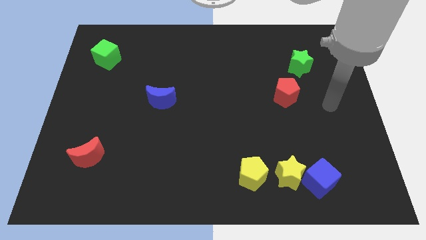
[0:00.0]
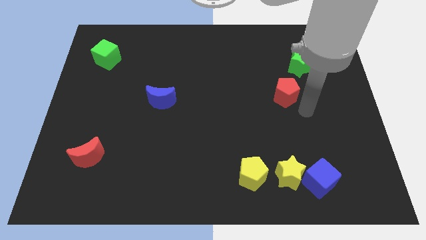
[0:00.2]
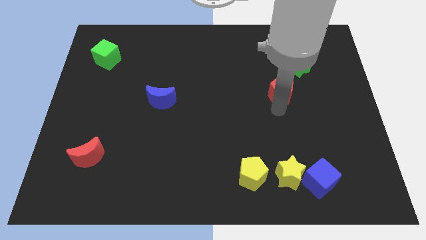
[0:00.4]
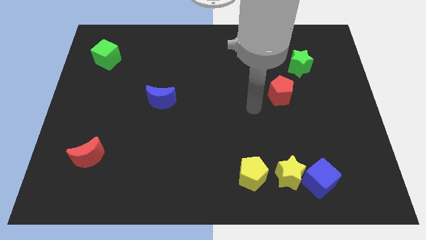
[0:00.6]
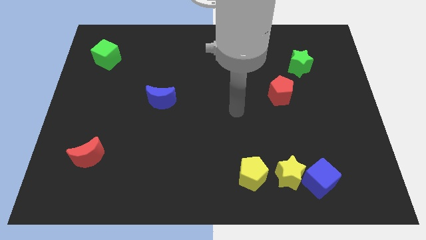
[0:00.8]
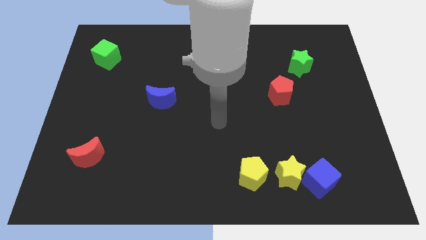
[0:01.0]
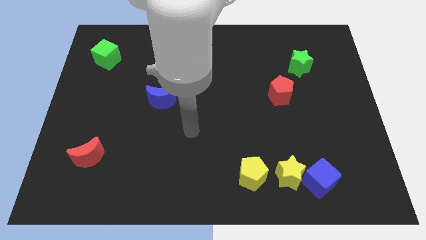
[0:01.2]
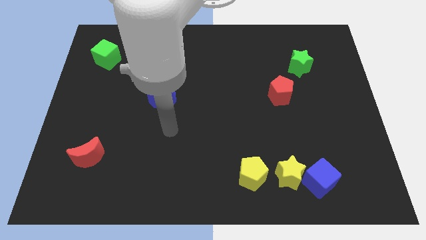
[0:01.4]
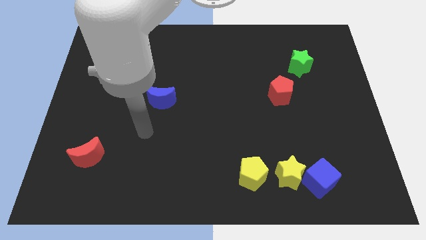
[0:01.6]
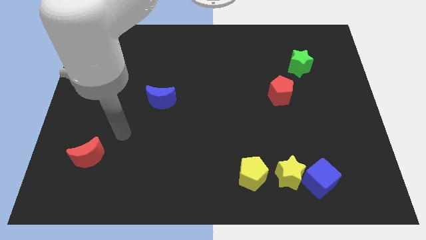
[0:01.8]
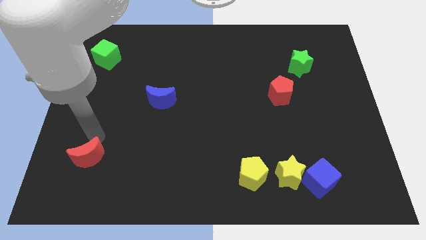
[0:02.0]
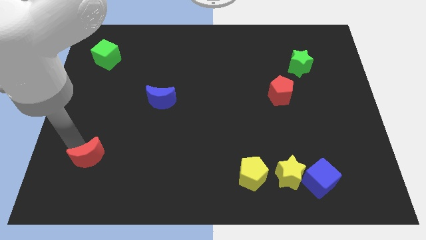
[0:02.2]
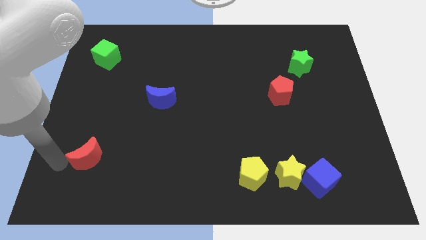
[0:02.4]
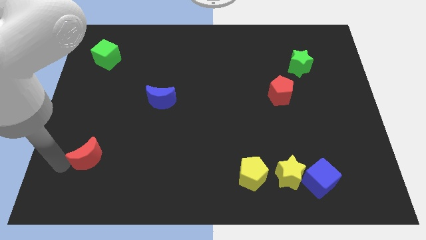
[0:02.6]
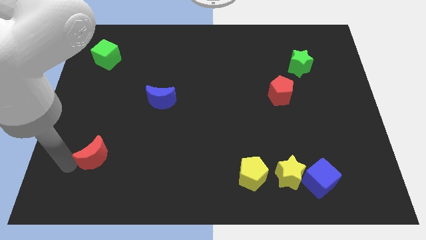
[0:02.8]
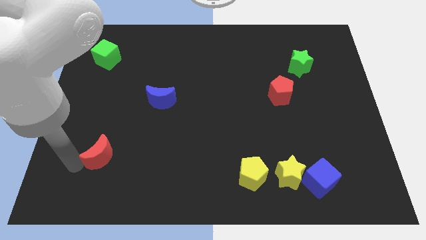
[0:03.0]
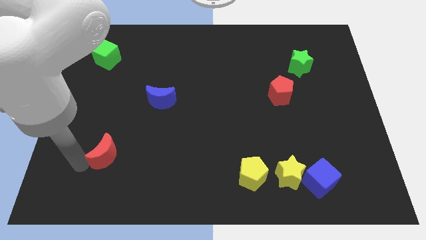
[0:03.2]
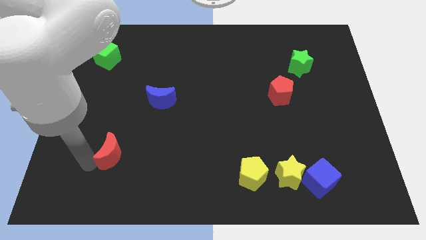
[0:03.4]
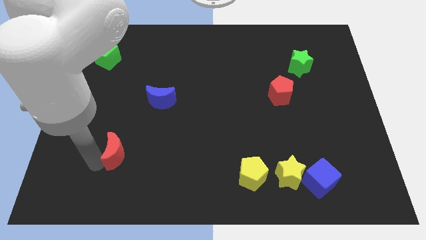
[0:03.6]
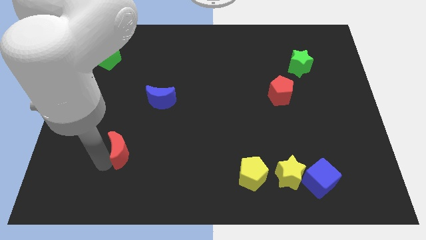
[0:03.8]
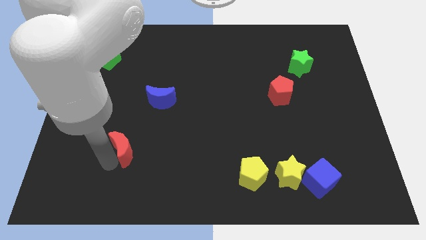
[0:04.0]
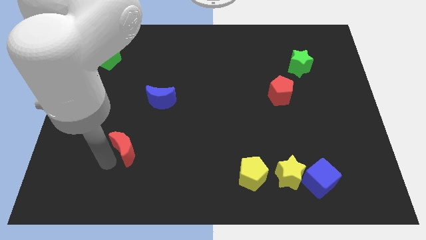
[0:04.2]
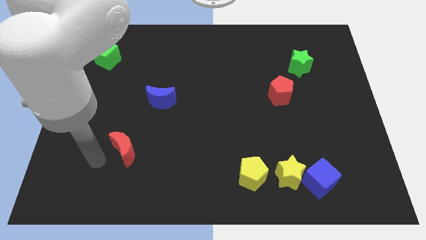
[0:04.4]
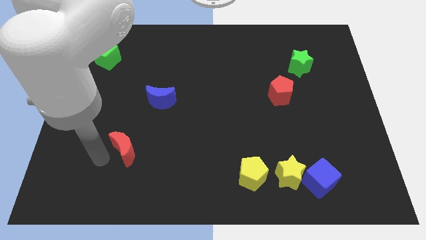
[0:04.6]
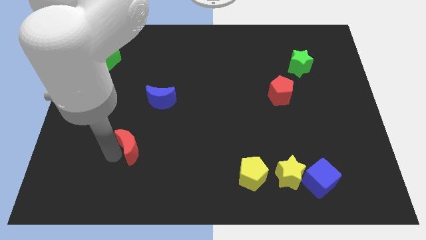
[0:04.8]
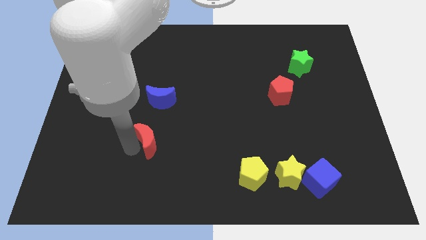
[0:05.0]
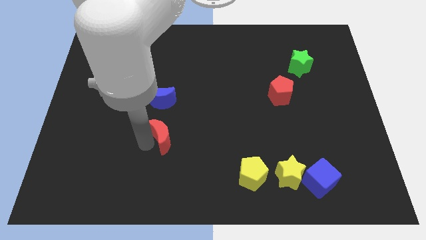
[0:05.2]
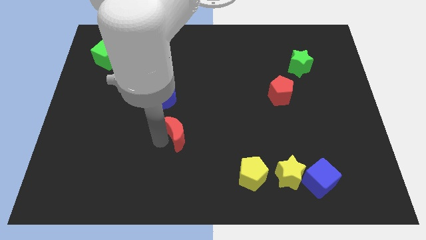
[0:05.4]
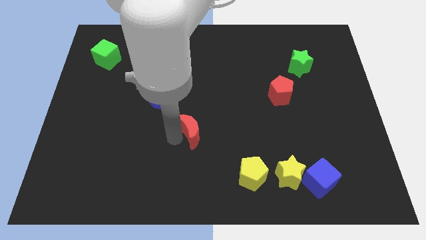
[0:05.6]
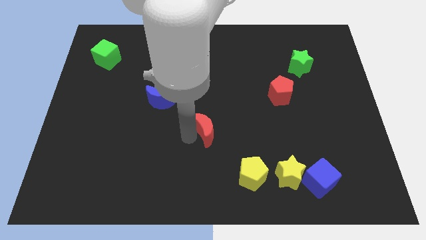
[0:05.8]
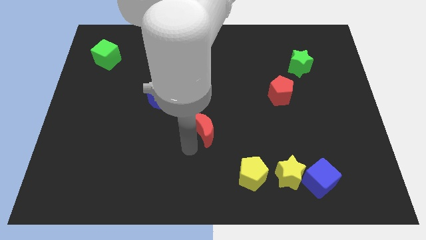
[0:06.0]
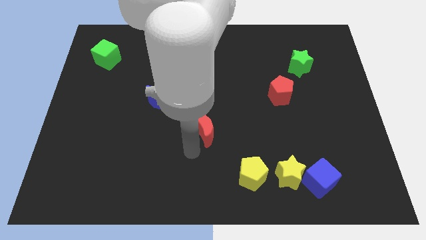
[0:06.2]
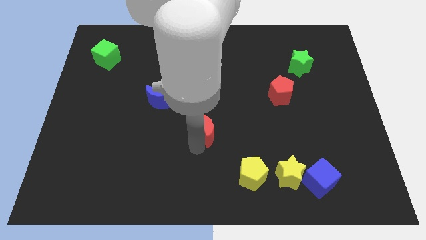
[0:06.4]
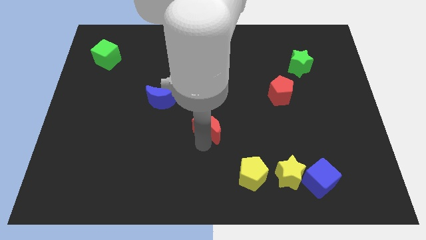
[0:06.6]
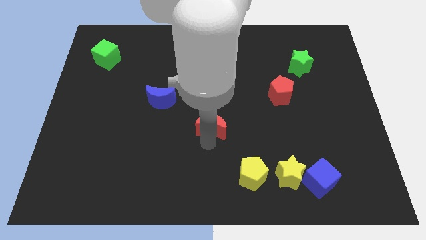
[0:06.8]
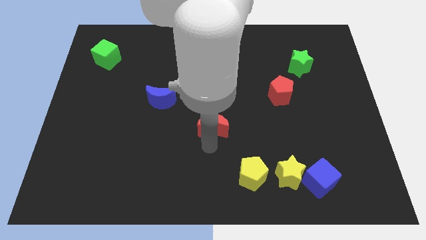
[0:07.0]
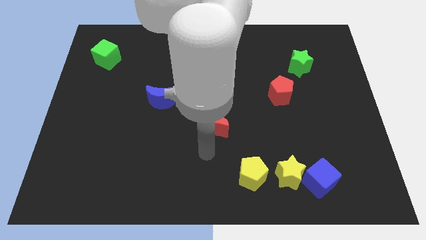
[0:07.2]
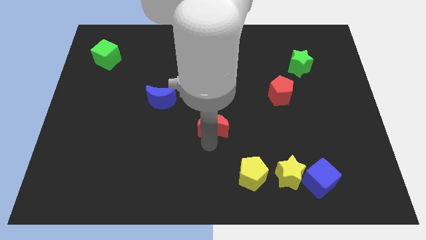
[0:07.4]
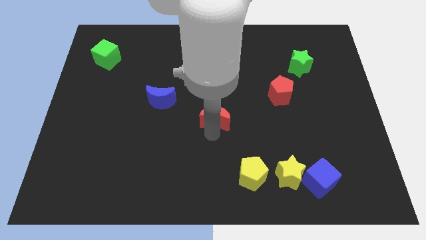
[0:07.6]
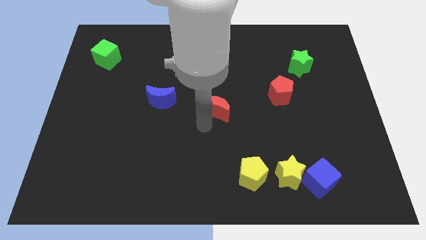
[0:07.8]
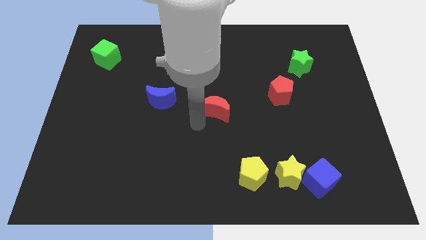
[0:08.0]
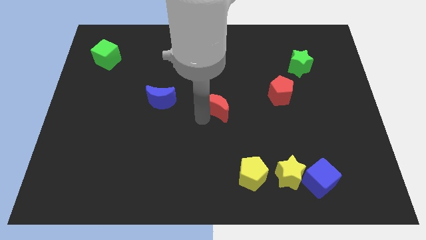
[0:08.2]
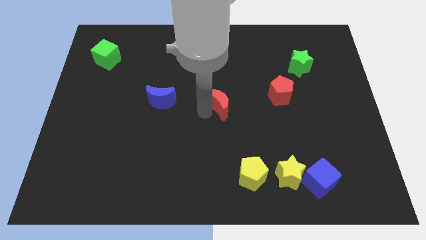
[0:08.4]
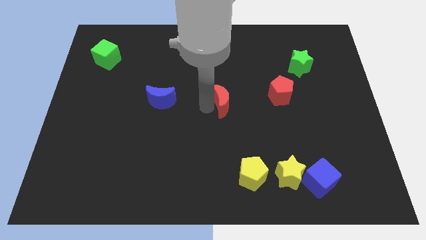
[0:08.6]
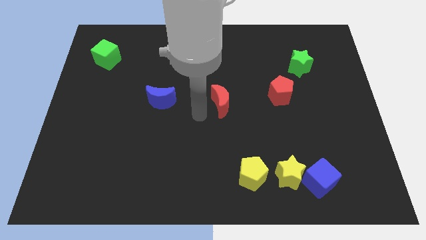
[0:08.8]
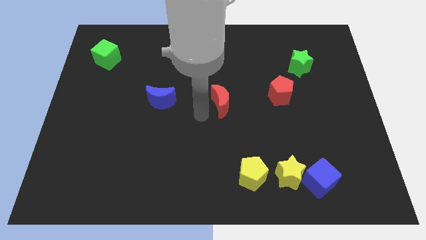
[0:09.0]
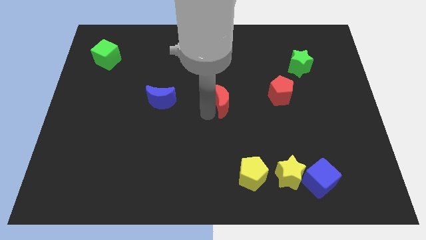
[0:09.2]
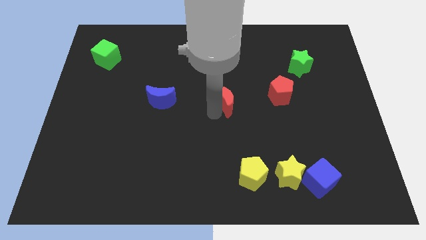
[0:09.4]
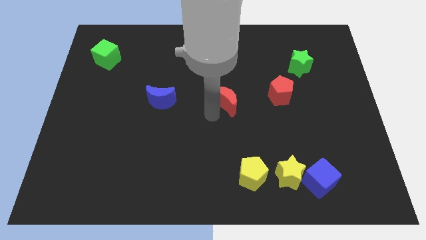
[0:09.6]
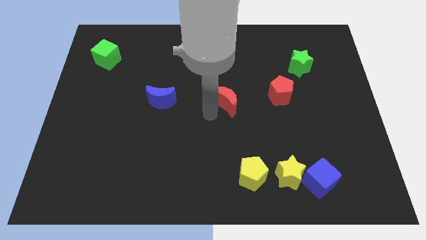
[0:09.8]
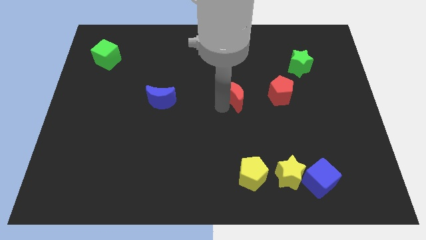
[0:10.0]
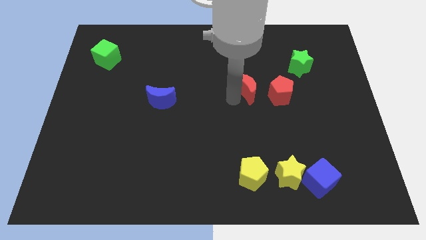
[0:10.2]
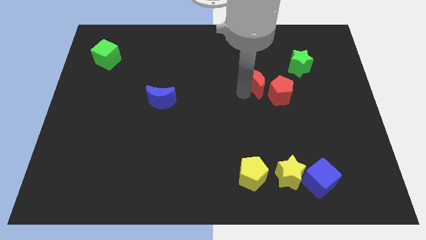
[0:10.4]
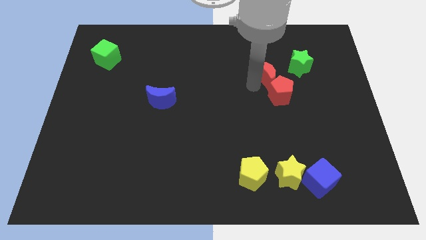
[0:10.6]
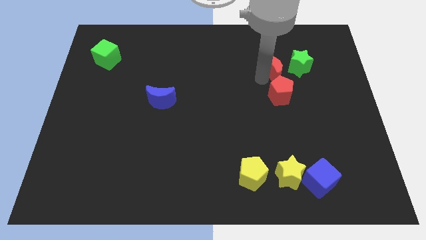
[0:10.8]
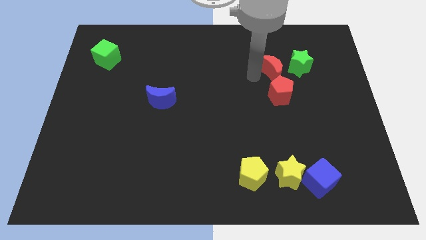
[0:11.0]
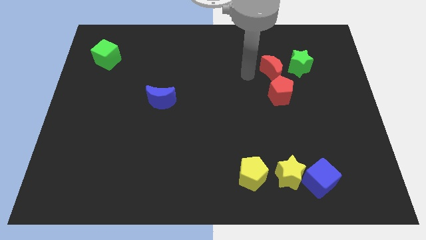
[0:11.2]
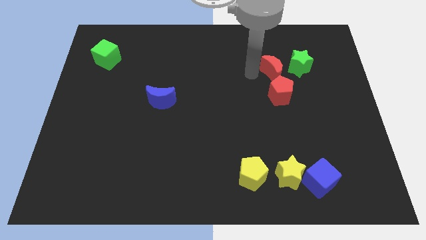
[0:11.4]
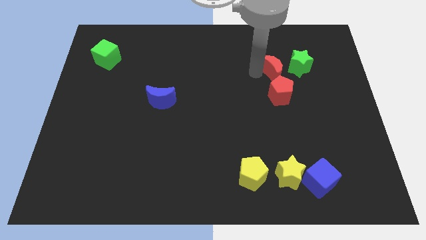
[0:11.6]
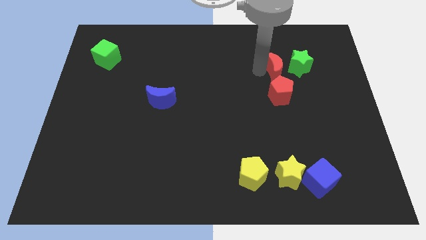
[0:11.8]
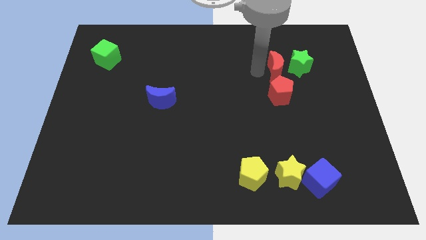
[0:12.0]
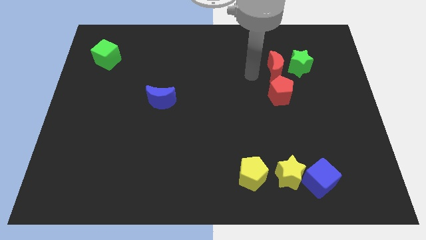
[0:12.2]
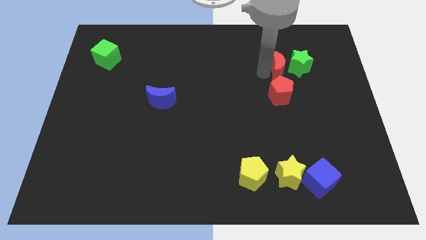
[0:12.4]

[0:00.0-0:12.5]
move the red moon next to the green star

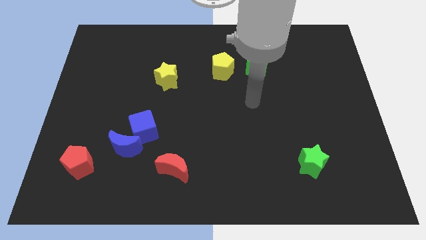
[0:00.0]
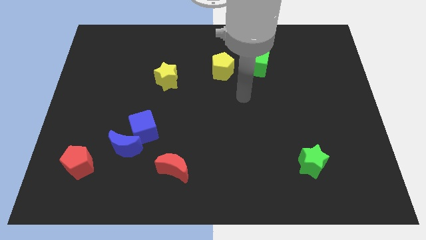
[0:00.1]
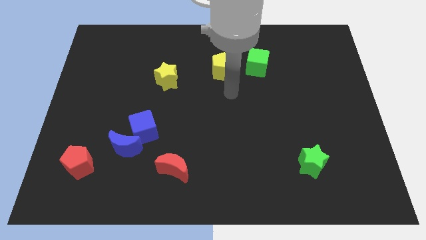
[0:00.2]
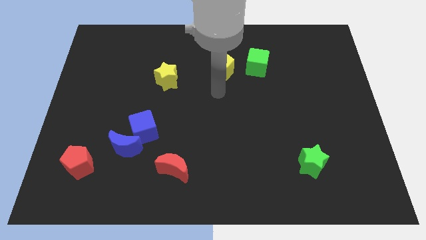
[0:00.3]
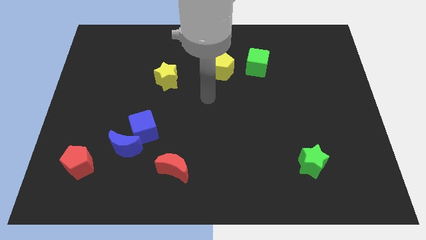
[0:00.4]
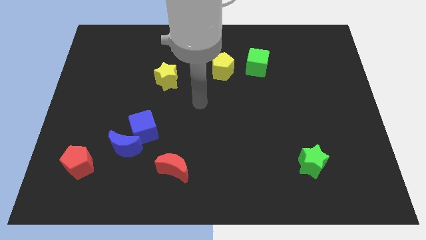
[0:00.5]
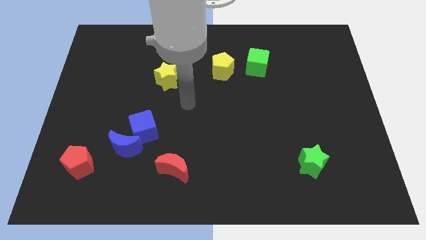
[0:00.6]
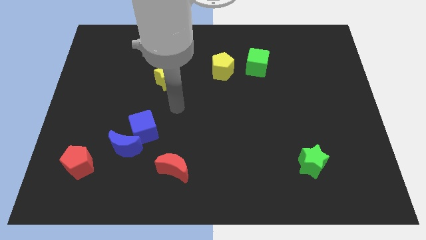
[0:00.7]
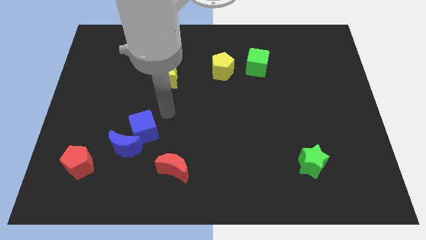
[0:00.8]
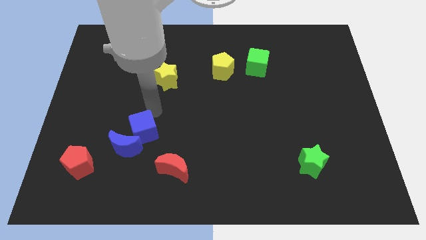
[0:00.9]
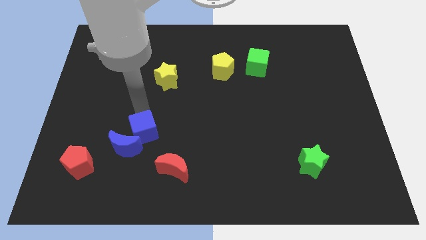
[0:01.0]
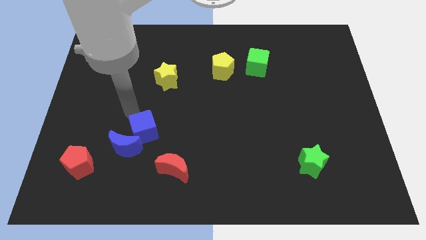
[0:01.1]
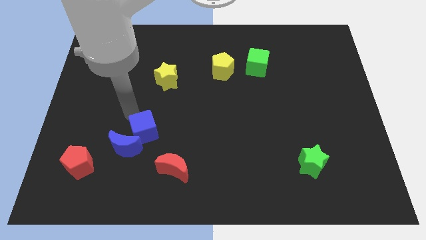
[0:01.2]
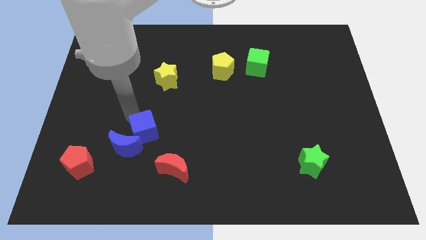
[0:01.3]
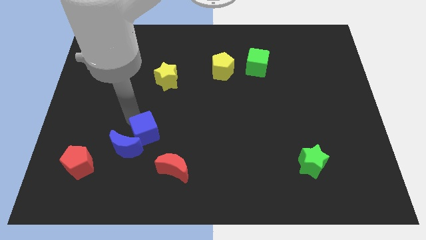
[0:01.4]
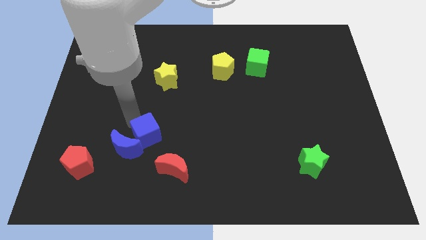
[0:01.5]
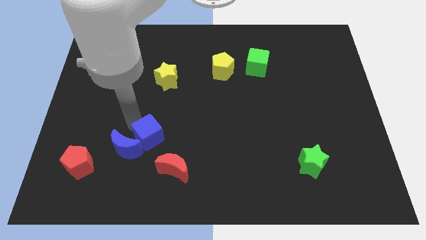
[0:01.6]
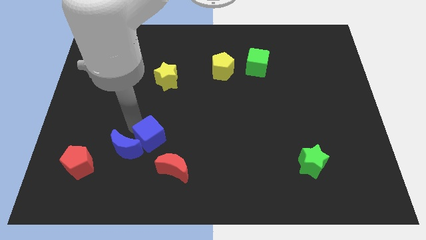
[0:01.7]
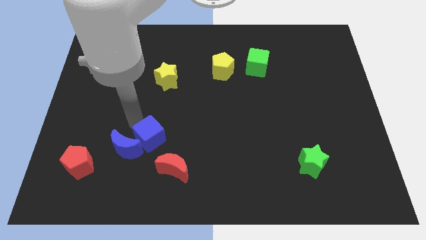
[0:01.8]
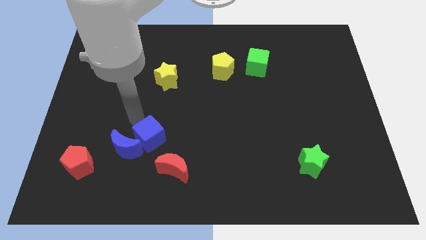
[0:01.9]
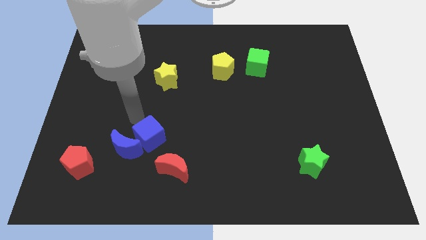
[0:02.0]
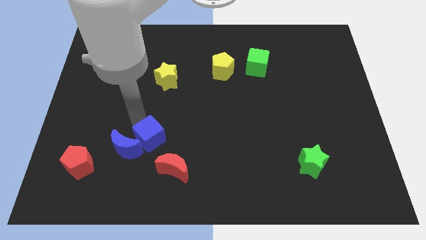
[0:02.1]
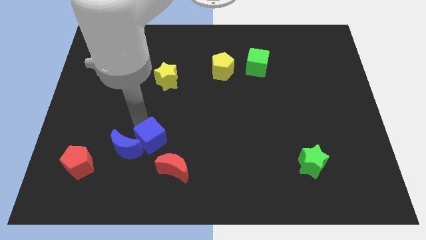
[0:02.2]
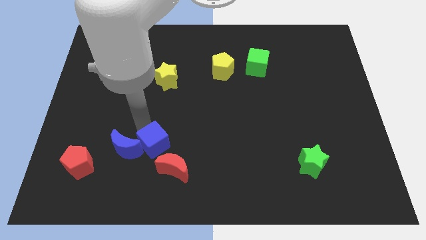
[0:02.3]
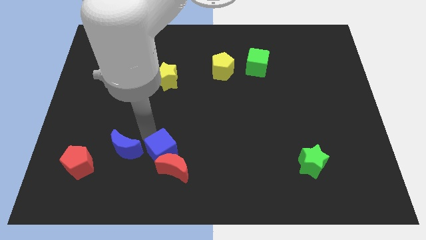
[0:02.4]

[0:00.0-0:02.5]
push the blue cube close to the red moon
